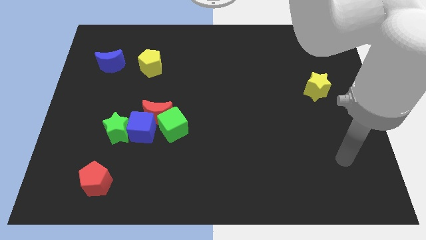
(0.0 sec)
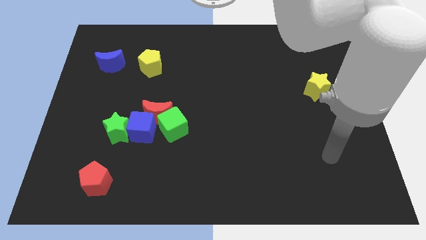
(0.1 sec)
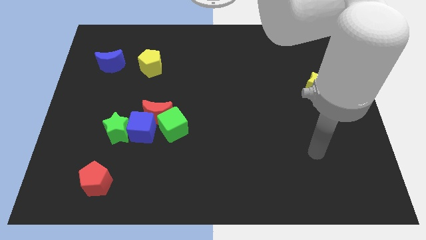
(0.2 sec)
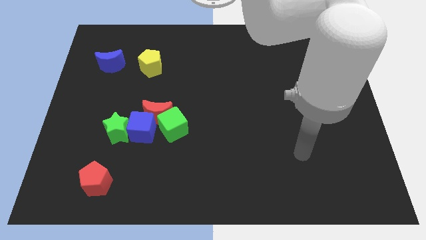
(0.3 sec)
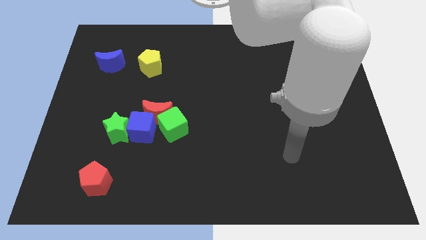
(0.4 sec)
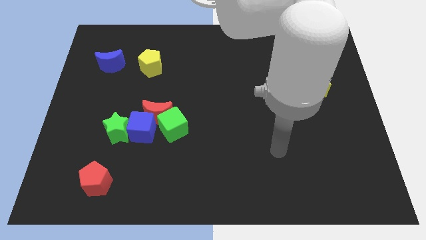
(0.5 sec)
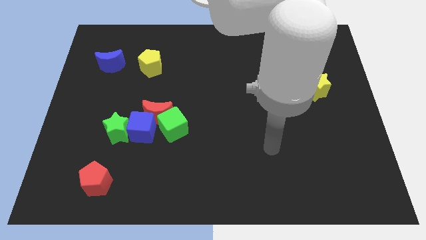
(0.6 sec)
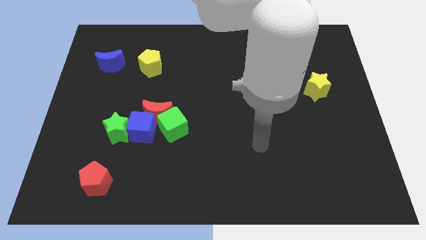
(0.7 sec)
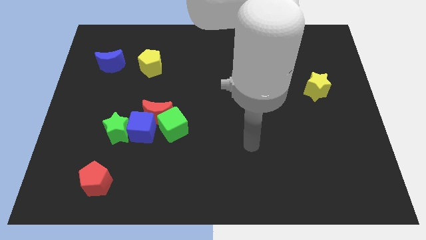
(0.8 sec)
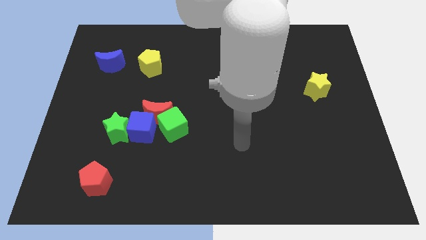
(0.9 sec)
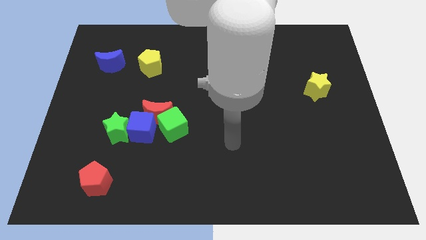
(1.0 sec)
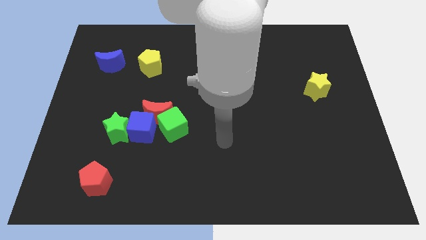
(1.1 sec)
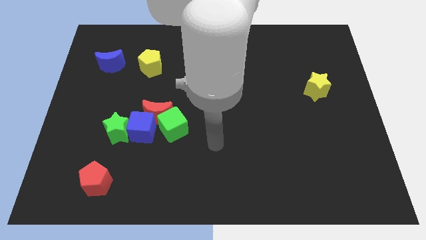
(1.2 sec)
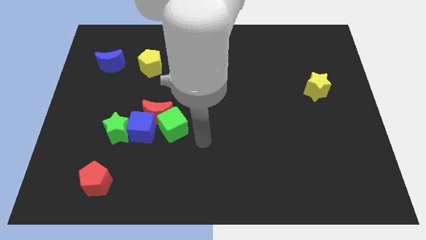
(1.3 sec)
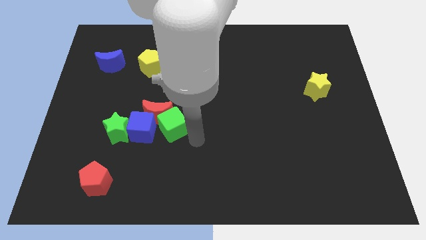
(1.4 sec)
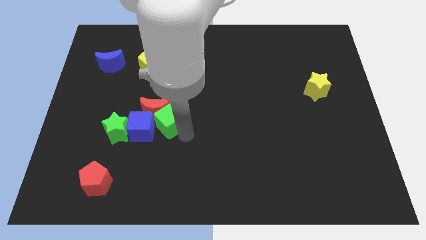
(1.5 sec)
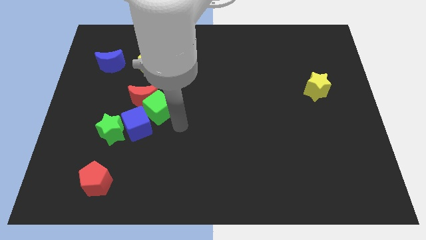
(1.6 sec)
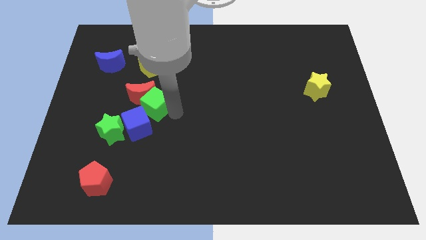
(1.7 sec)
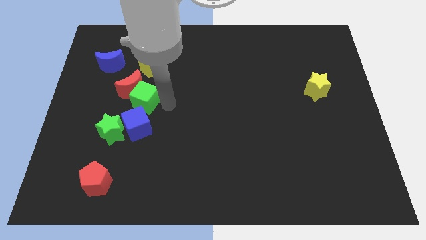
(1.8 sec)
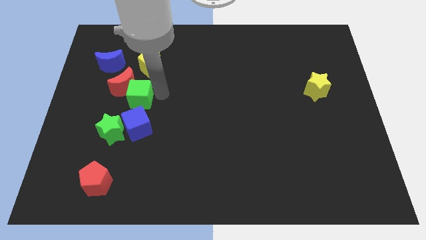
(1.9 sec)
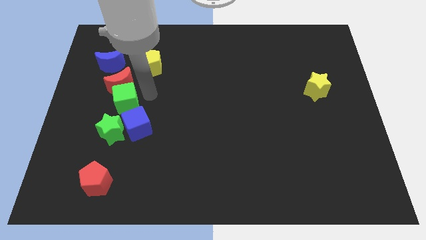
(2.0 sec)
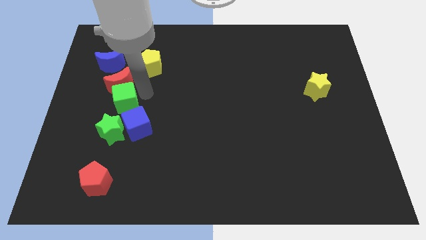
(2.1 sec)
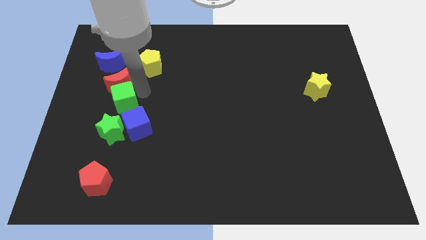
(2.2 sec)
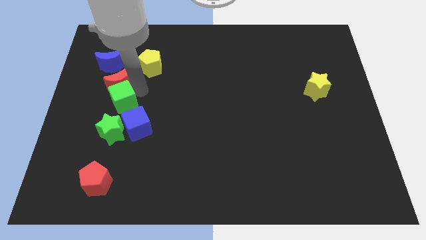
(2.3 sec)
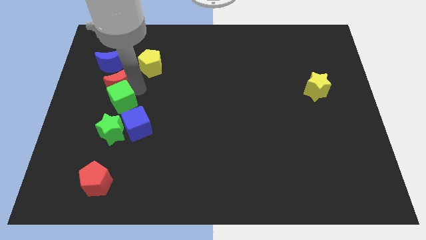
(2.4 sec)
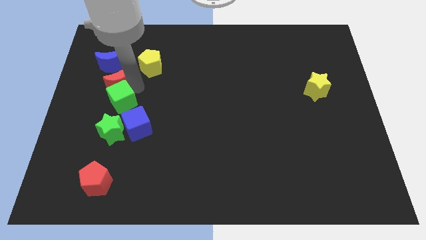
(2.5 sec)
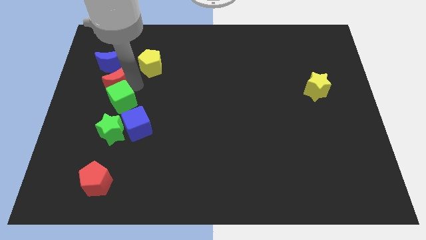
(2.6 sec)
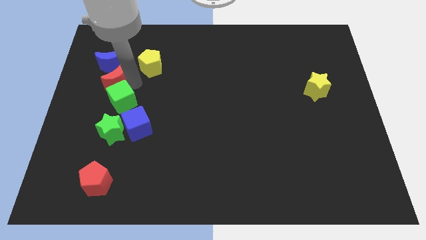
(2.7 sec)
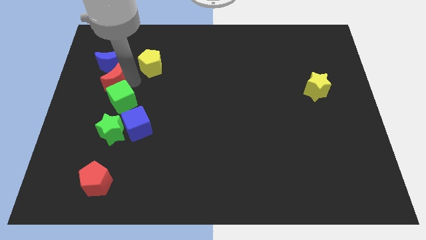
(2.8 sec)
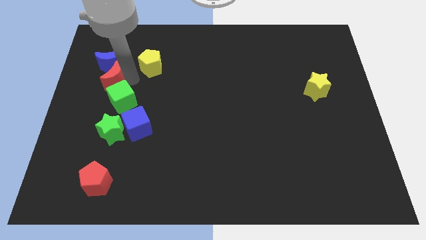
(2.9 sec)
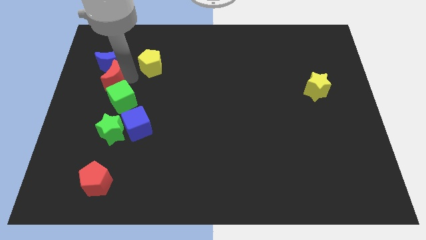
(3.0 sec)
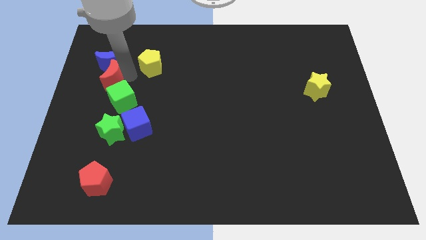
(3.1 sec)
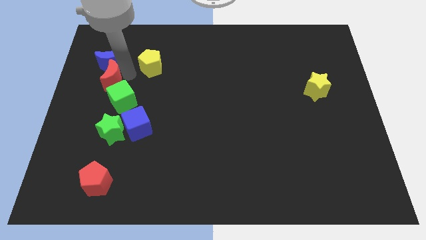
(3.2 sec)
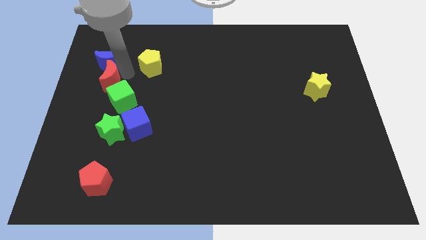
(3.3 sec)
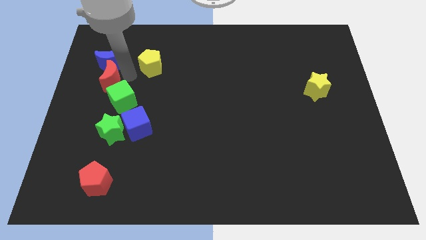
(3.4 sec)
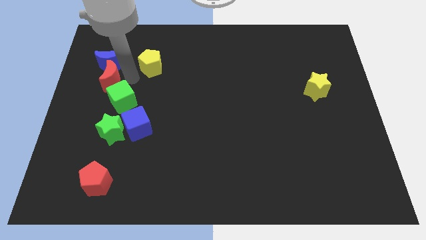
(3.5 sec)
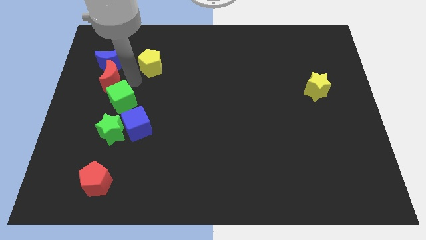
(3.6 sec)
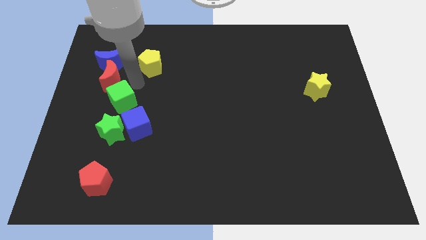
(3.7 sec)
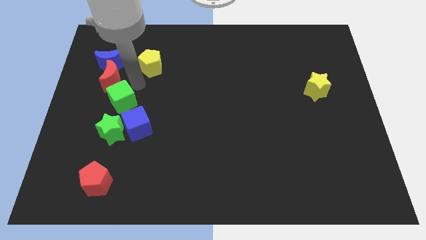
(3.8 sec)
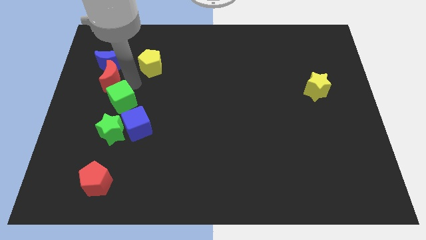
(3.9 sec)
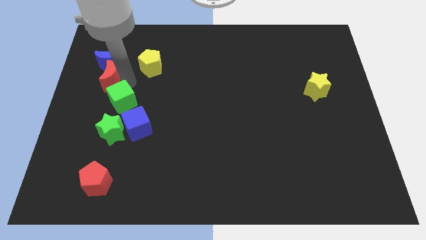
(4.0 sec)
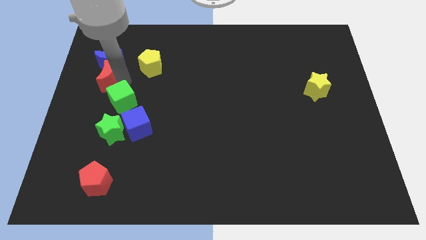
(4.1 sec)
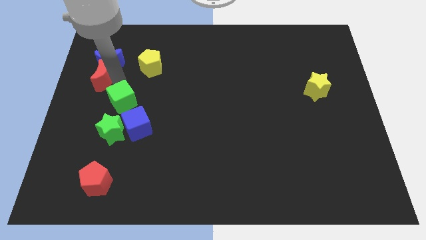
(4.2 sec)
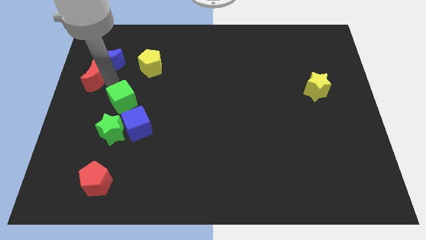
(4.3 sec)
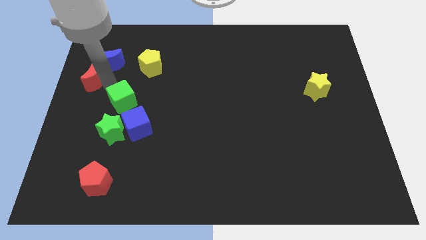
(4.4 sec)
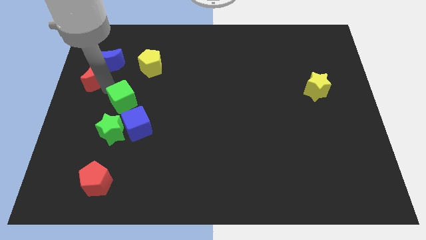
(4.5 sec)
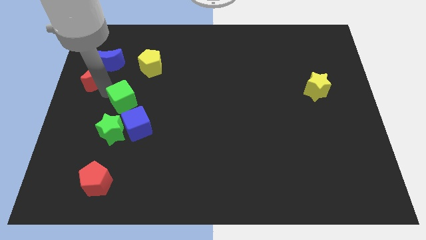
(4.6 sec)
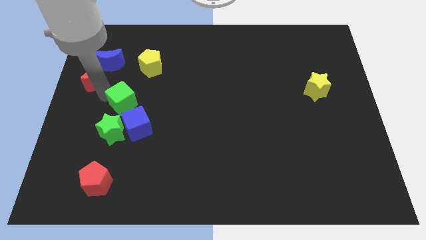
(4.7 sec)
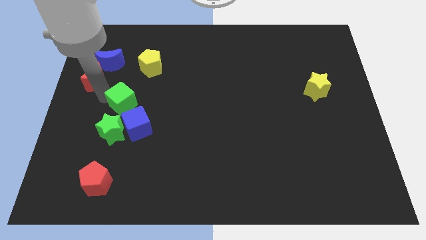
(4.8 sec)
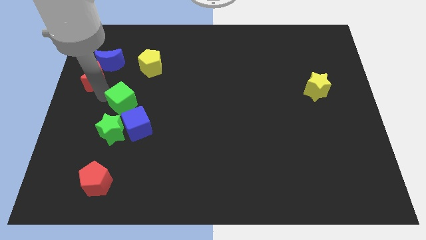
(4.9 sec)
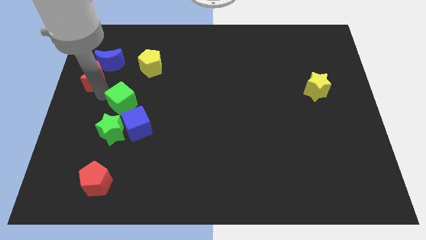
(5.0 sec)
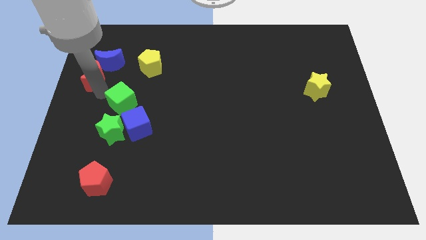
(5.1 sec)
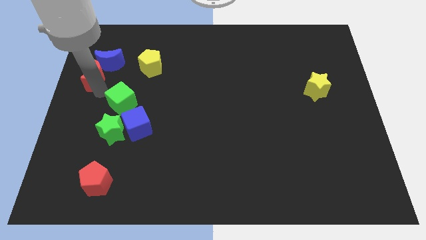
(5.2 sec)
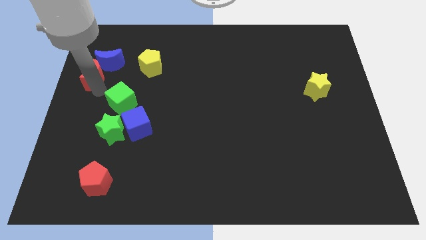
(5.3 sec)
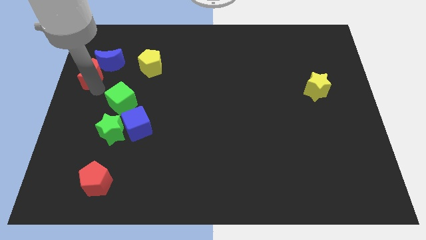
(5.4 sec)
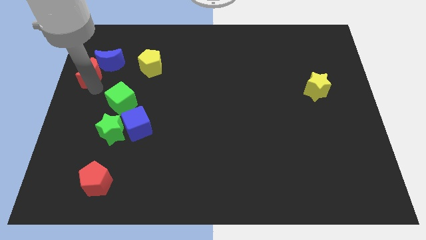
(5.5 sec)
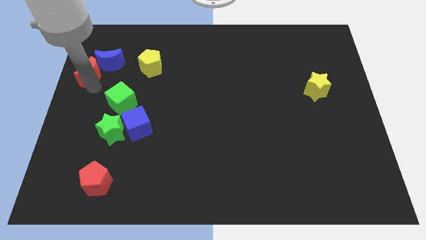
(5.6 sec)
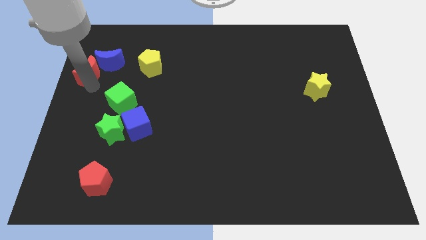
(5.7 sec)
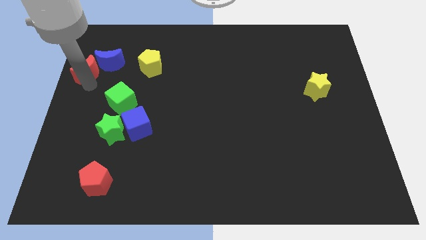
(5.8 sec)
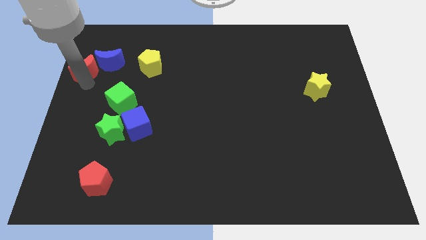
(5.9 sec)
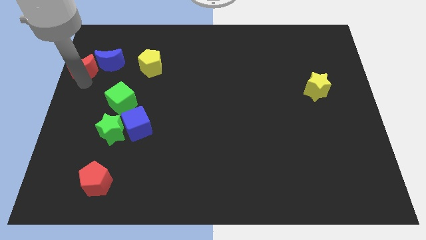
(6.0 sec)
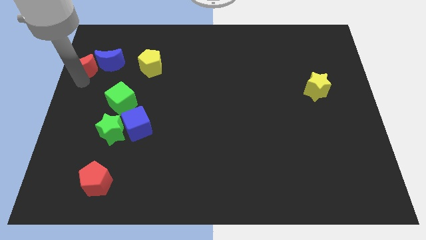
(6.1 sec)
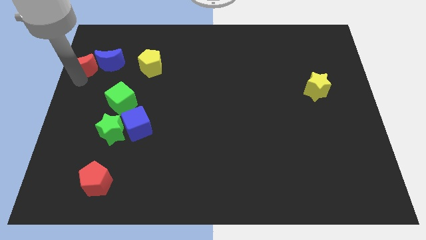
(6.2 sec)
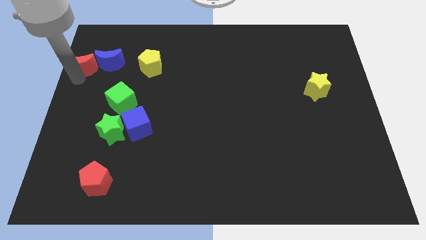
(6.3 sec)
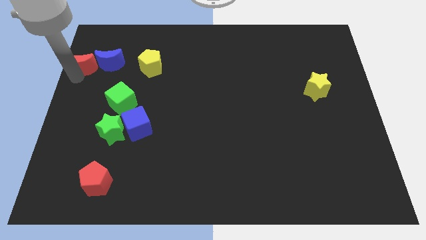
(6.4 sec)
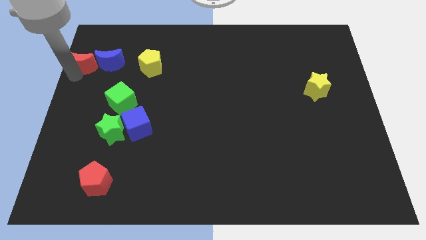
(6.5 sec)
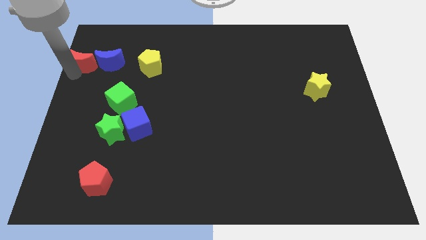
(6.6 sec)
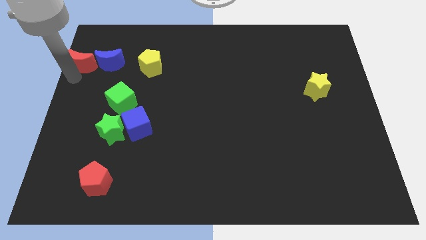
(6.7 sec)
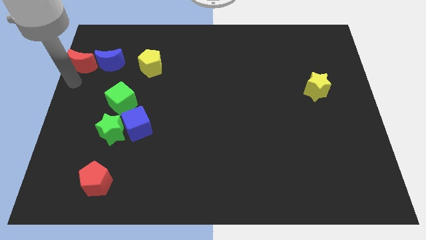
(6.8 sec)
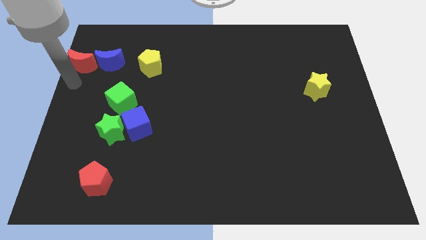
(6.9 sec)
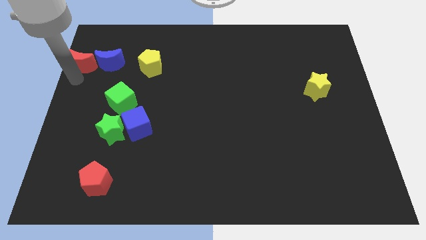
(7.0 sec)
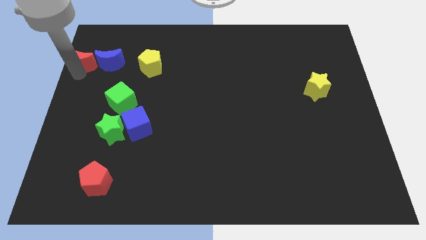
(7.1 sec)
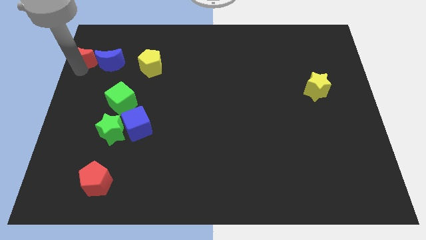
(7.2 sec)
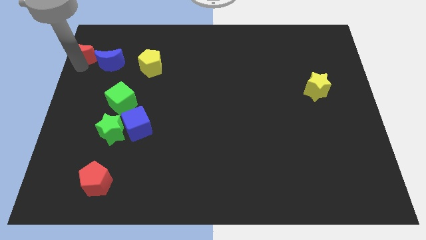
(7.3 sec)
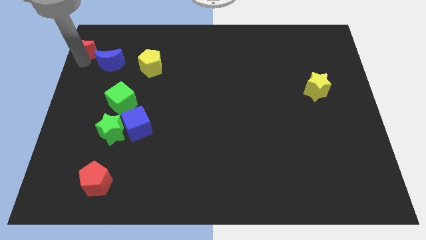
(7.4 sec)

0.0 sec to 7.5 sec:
slide the red moon to the top left corner

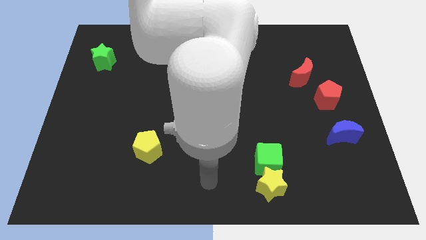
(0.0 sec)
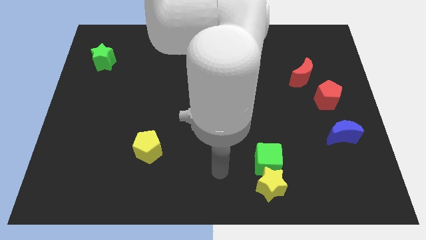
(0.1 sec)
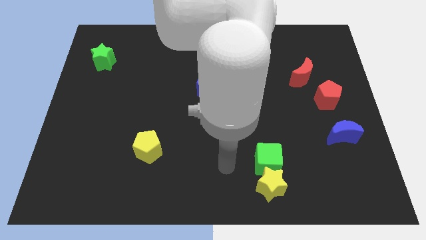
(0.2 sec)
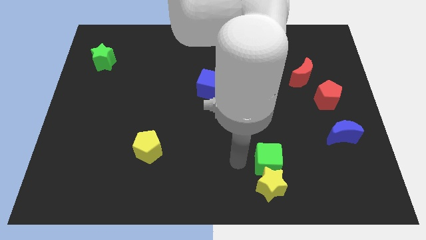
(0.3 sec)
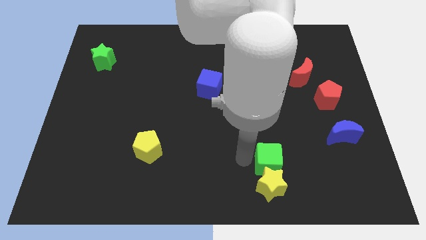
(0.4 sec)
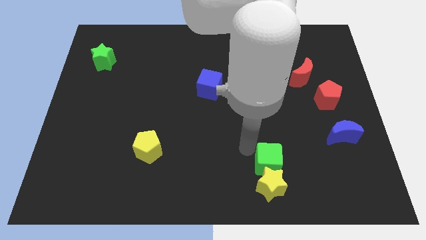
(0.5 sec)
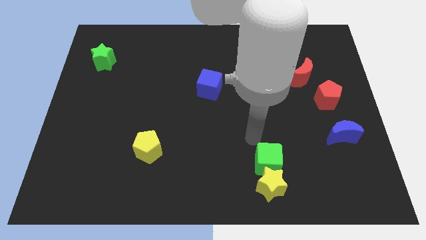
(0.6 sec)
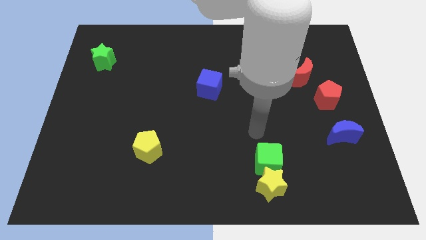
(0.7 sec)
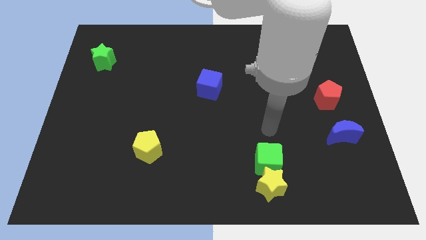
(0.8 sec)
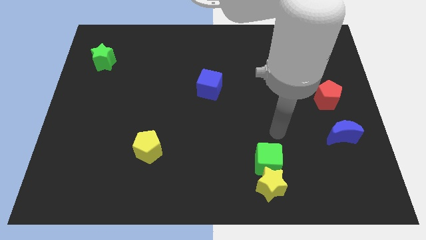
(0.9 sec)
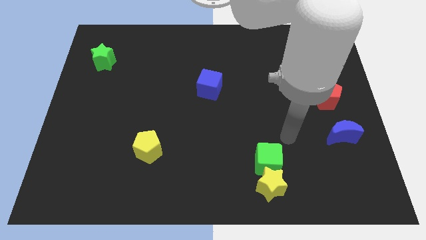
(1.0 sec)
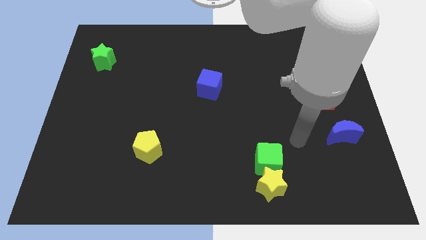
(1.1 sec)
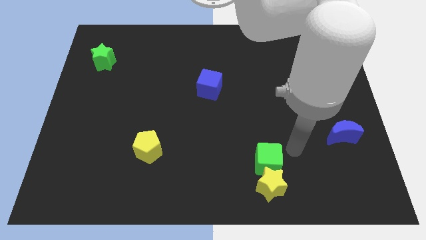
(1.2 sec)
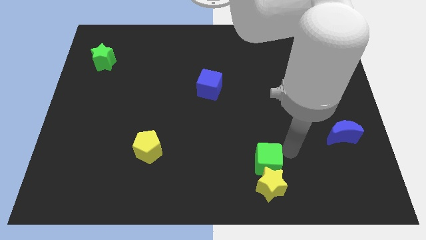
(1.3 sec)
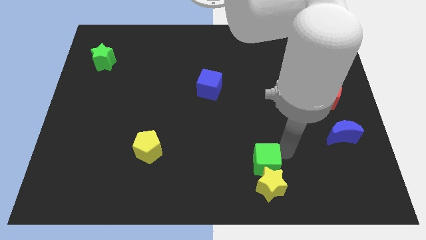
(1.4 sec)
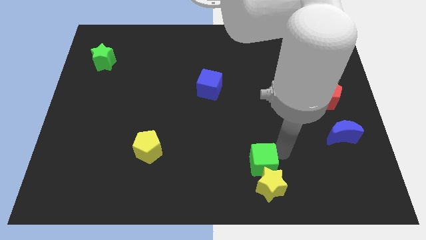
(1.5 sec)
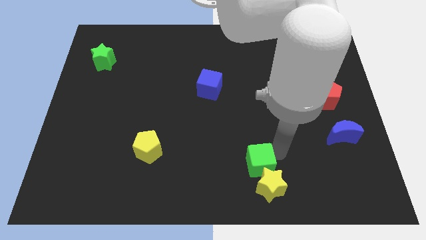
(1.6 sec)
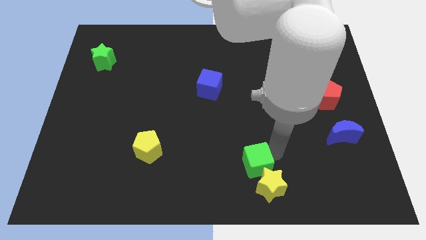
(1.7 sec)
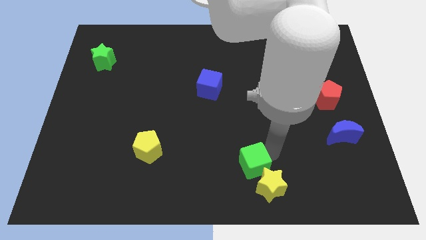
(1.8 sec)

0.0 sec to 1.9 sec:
slide the green cube to the bottom side
